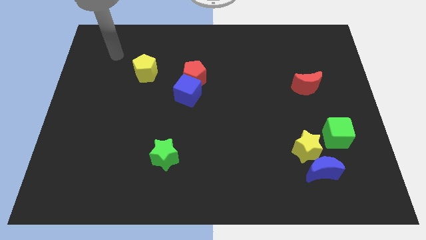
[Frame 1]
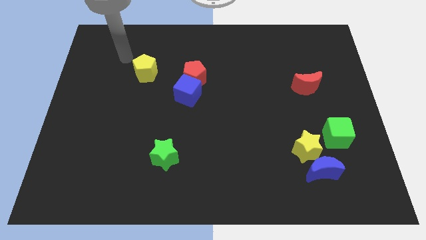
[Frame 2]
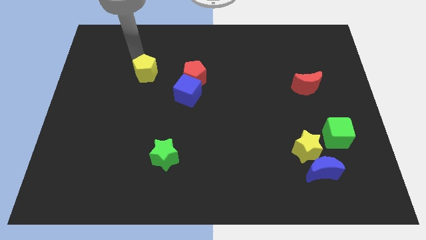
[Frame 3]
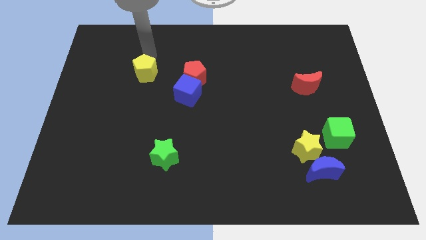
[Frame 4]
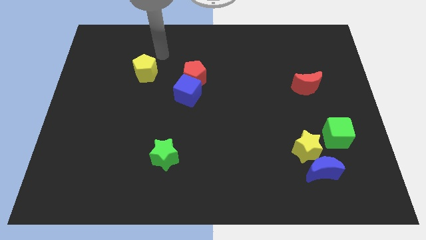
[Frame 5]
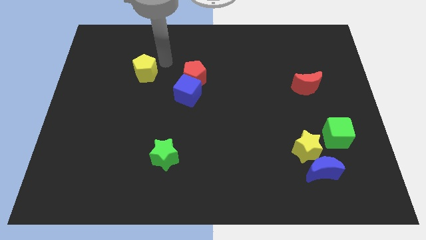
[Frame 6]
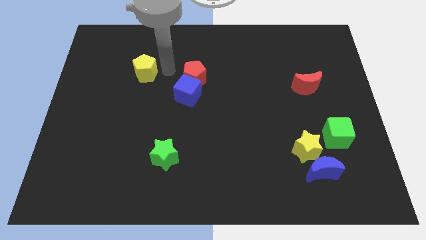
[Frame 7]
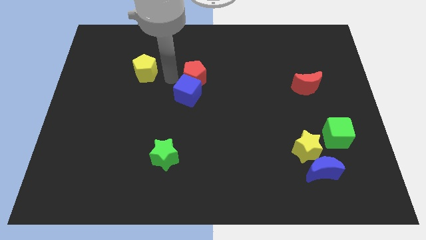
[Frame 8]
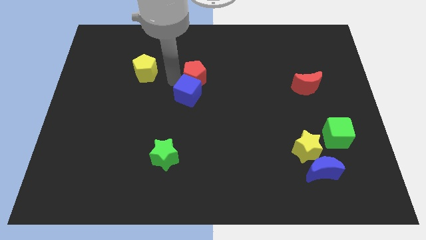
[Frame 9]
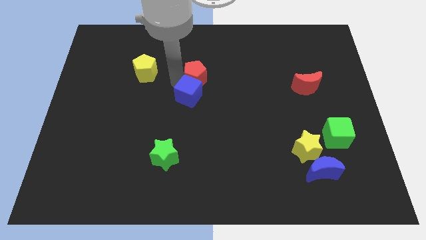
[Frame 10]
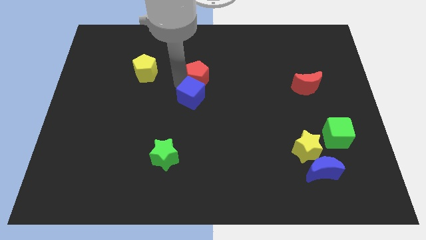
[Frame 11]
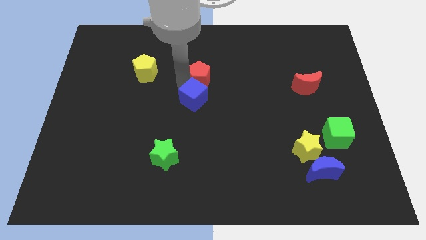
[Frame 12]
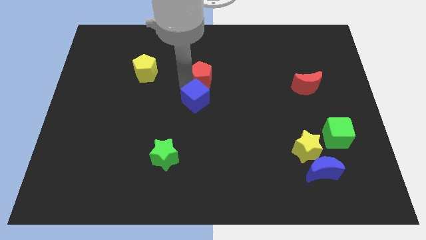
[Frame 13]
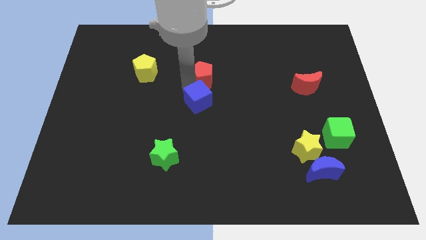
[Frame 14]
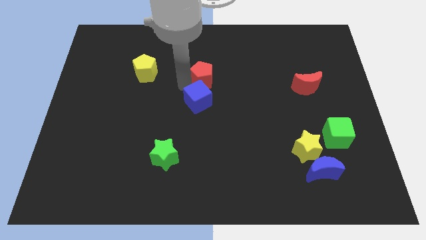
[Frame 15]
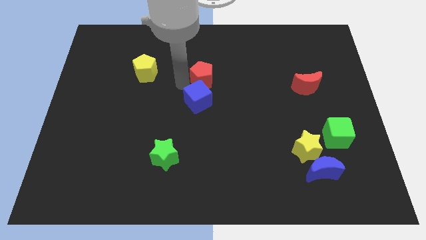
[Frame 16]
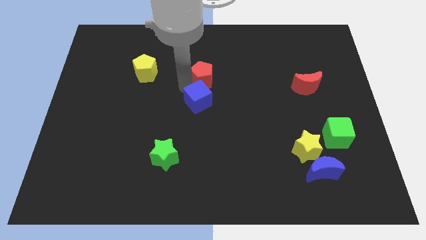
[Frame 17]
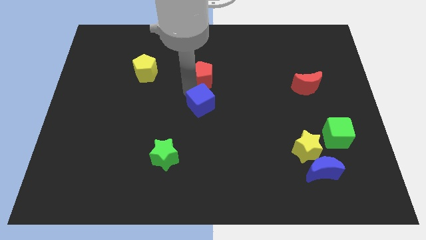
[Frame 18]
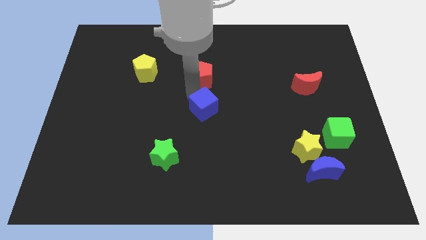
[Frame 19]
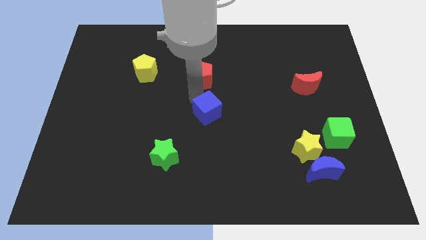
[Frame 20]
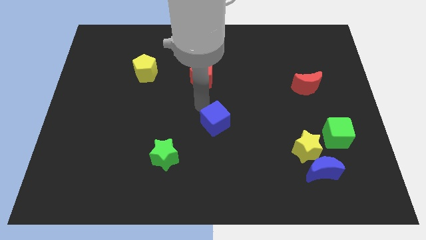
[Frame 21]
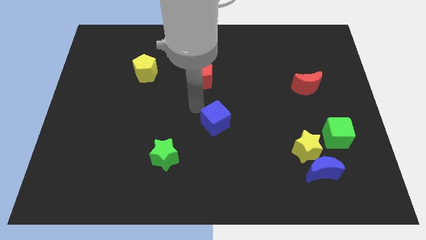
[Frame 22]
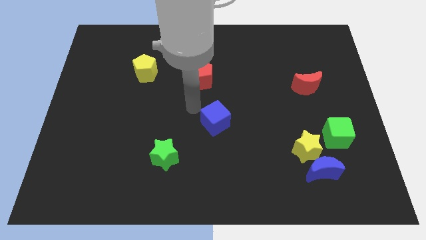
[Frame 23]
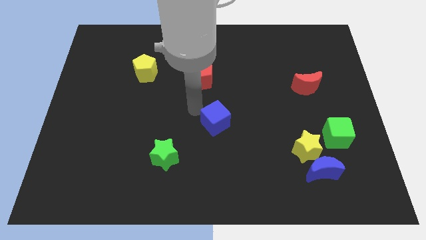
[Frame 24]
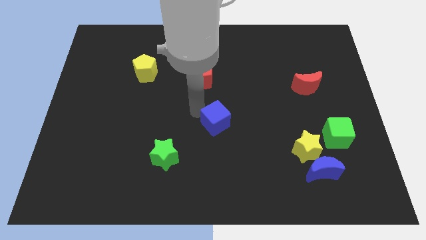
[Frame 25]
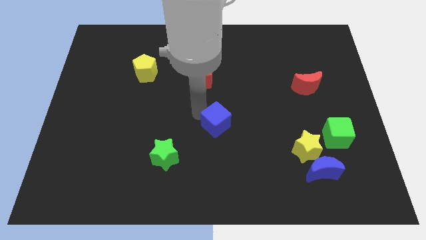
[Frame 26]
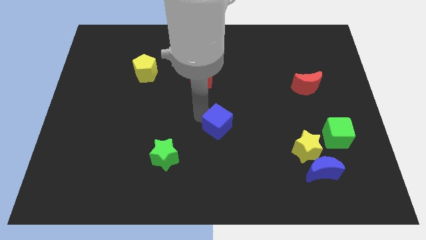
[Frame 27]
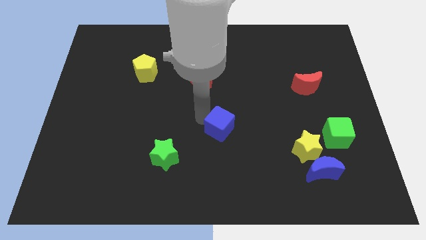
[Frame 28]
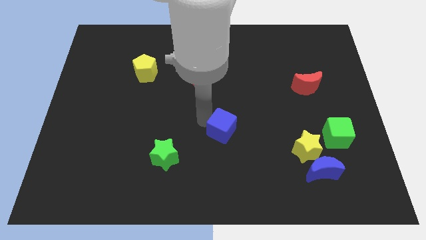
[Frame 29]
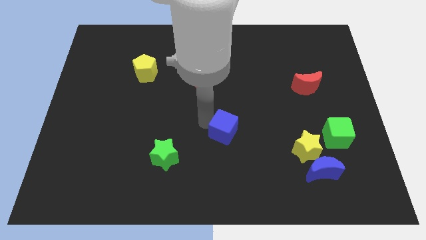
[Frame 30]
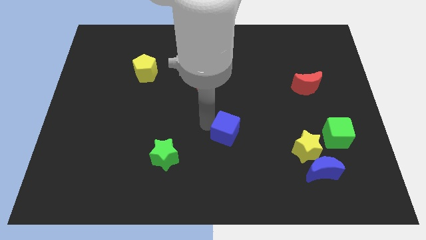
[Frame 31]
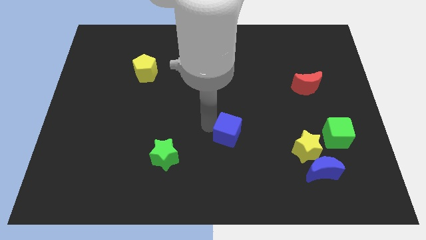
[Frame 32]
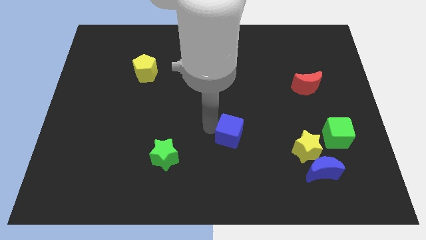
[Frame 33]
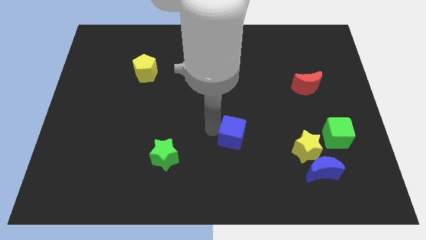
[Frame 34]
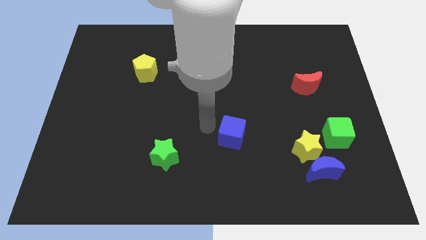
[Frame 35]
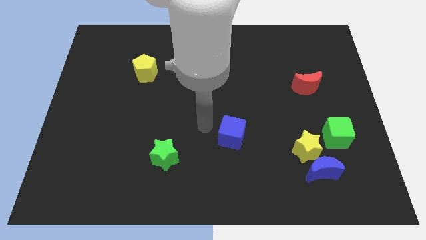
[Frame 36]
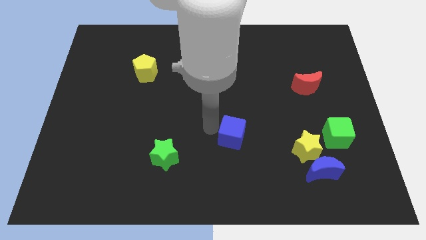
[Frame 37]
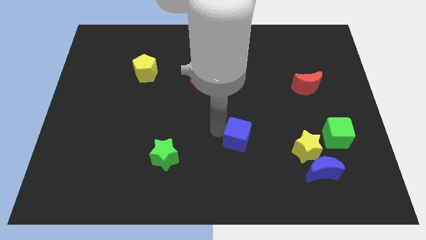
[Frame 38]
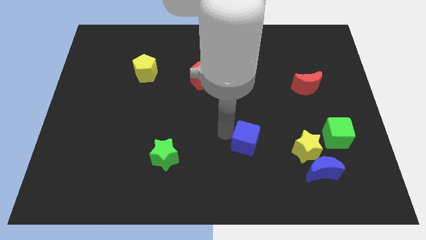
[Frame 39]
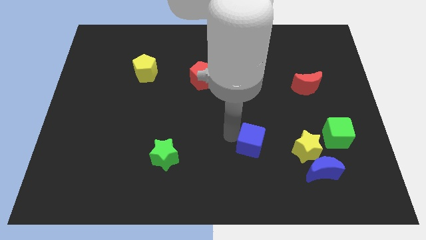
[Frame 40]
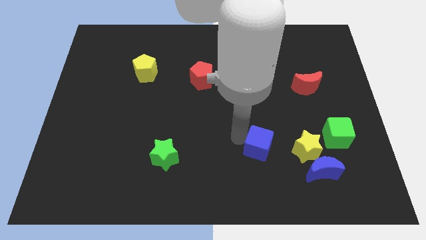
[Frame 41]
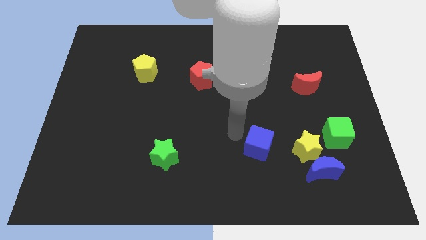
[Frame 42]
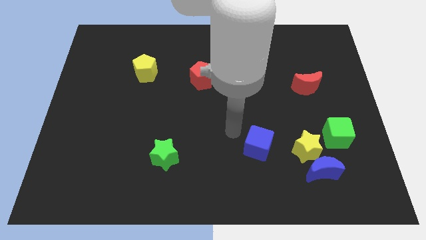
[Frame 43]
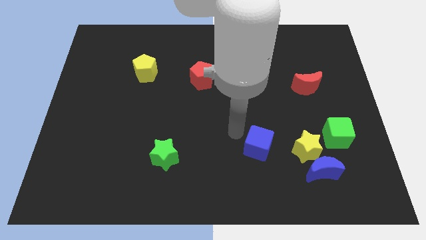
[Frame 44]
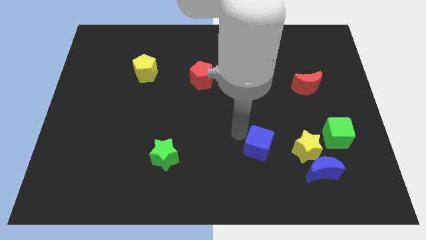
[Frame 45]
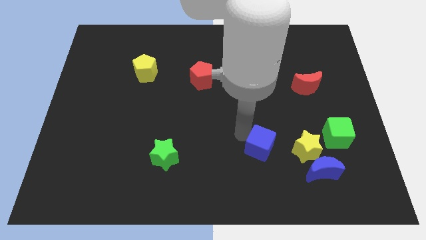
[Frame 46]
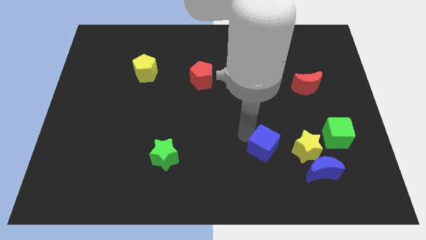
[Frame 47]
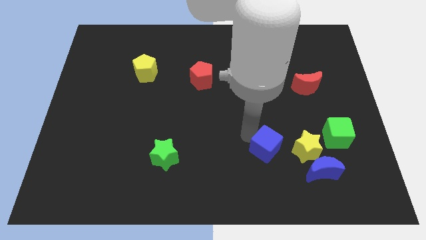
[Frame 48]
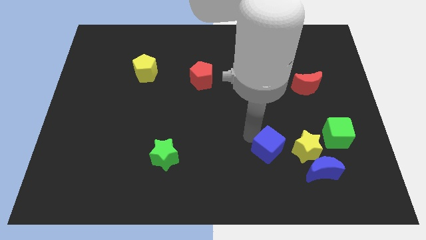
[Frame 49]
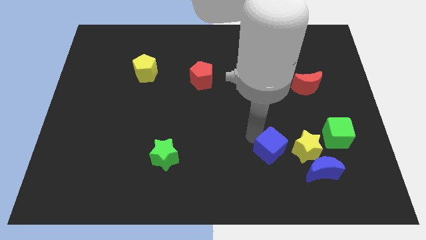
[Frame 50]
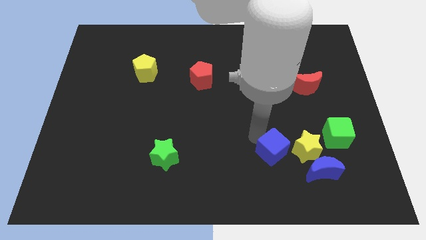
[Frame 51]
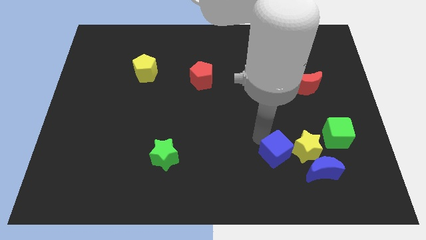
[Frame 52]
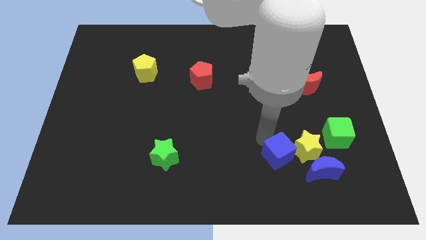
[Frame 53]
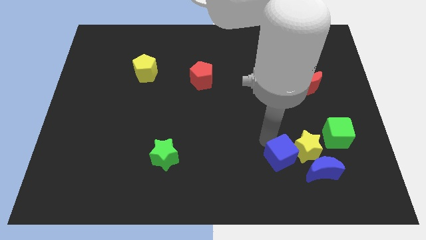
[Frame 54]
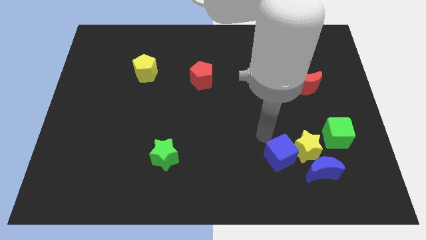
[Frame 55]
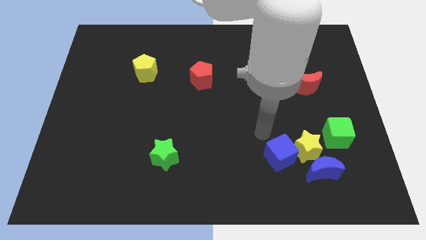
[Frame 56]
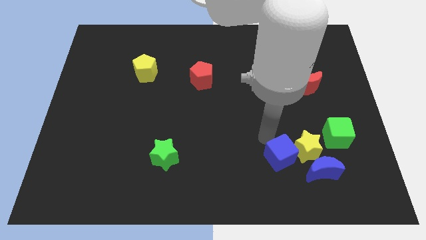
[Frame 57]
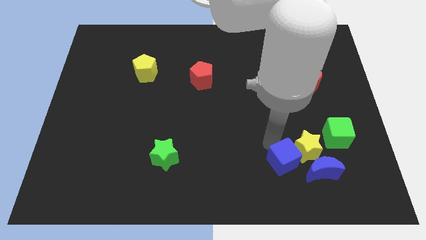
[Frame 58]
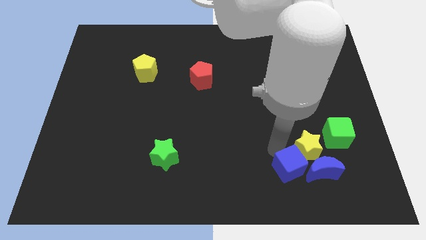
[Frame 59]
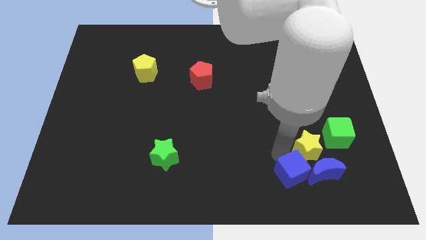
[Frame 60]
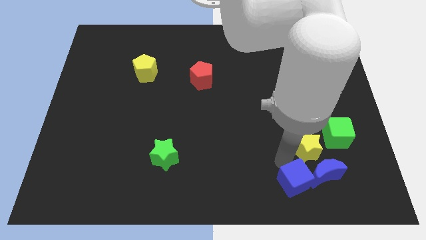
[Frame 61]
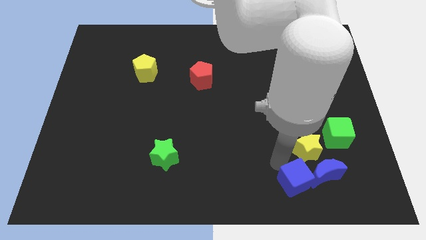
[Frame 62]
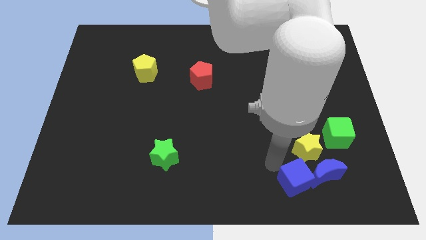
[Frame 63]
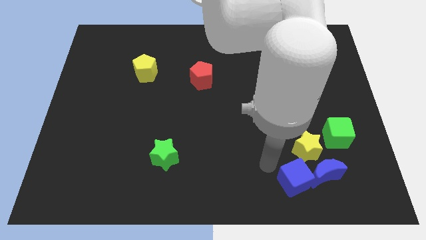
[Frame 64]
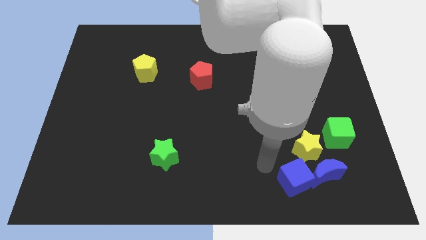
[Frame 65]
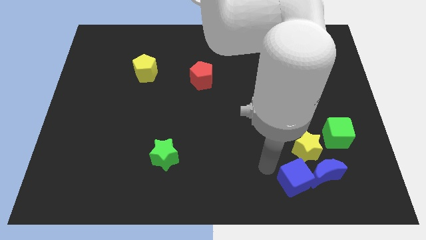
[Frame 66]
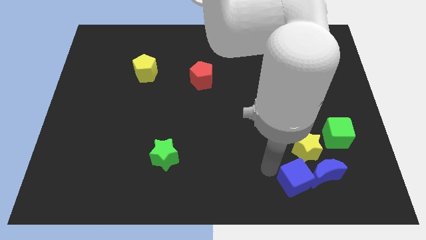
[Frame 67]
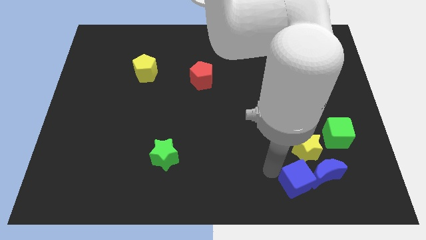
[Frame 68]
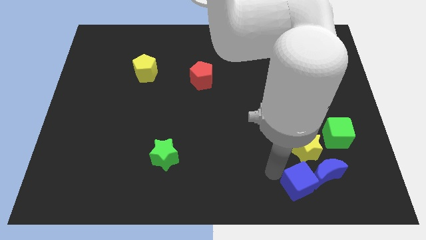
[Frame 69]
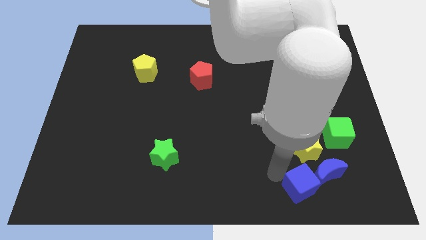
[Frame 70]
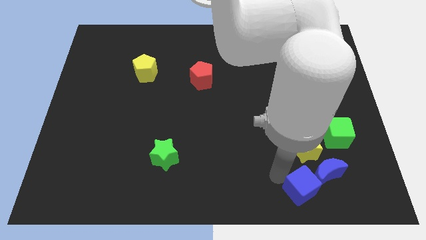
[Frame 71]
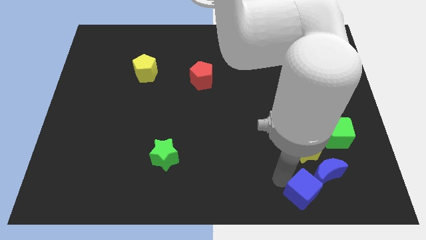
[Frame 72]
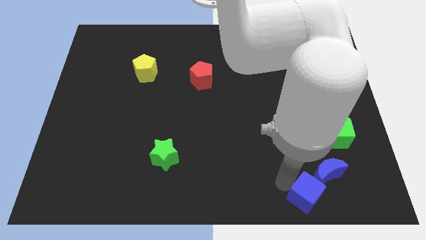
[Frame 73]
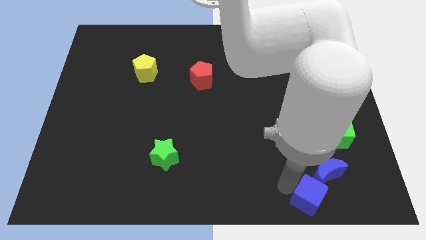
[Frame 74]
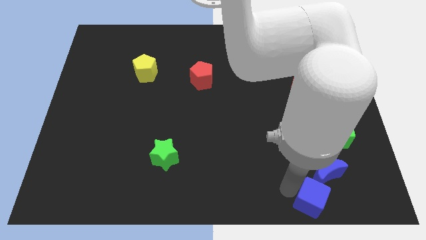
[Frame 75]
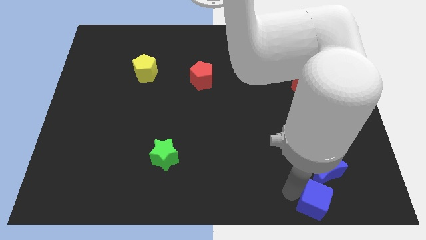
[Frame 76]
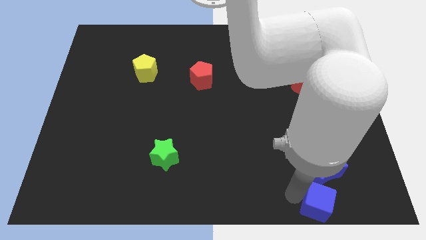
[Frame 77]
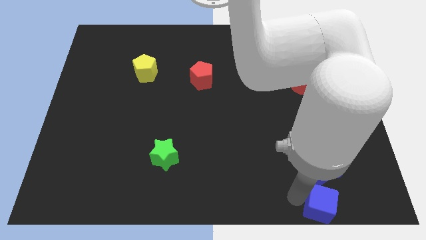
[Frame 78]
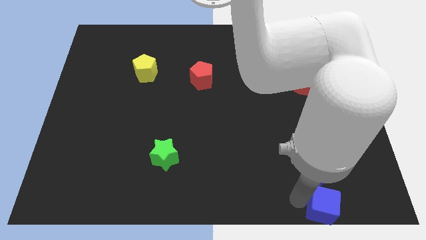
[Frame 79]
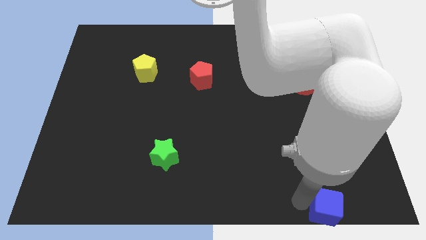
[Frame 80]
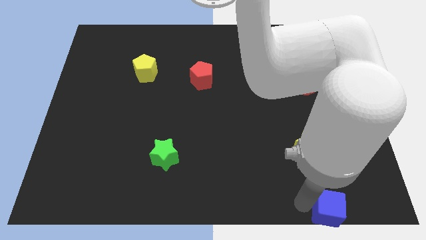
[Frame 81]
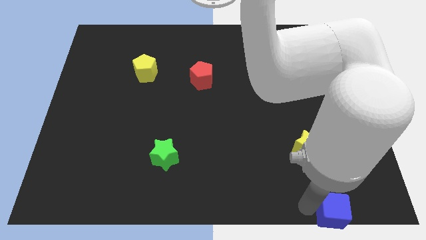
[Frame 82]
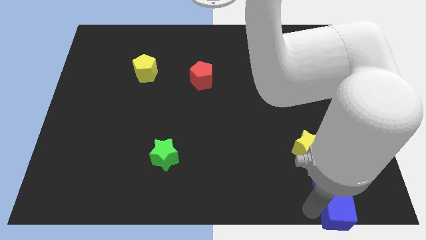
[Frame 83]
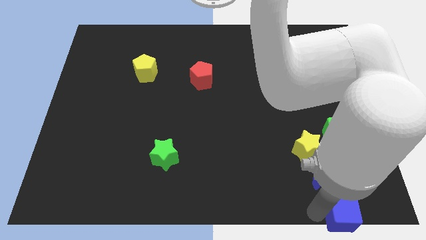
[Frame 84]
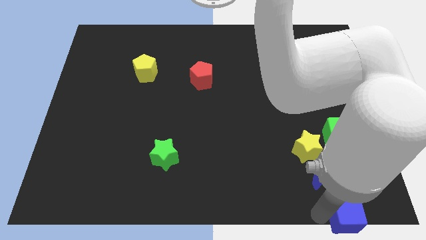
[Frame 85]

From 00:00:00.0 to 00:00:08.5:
push the blue cube to the bottom right
